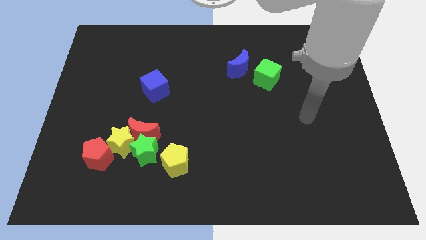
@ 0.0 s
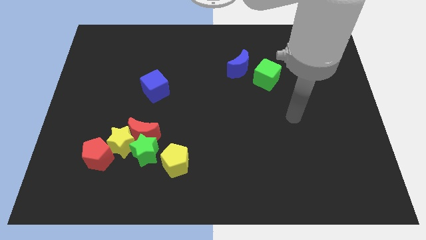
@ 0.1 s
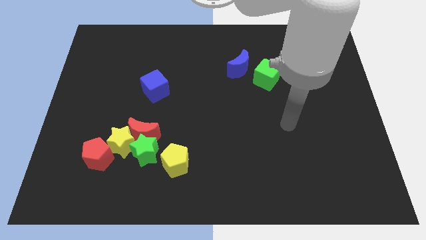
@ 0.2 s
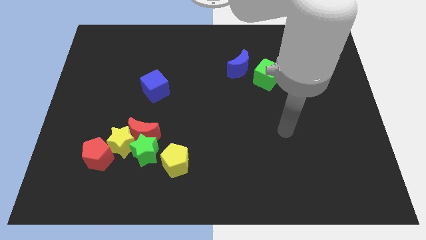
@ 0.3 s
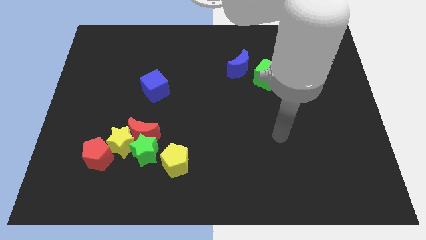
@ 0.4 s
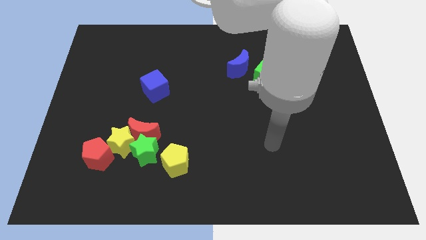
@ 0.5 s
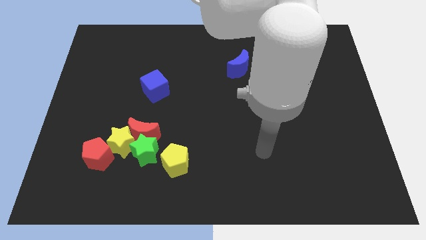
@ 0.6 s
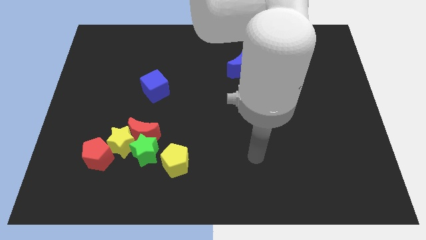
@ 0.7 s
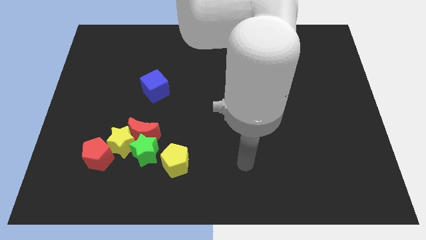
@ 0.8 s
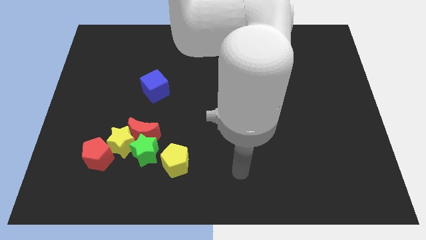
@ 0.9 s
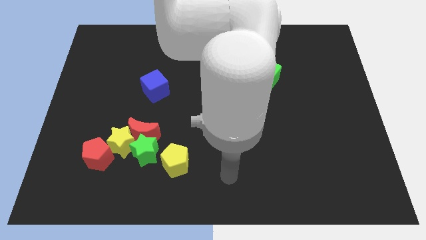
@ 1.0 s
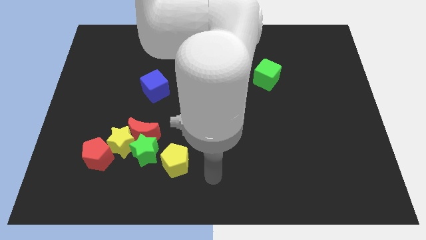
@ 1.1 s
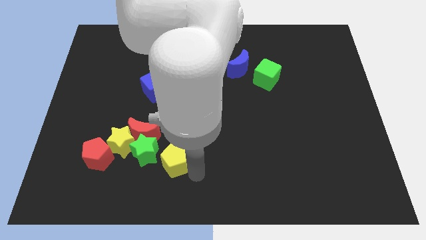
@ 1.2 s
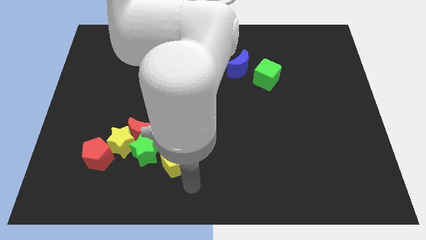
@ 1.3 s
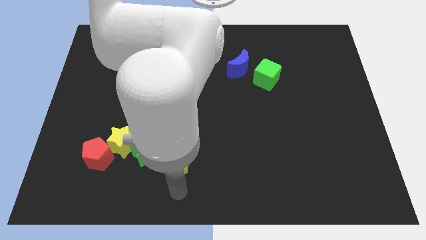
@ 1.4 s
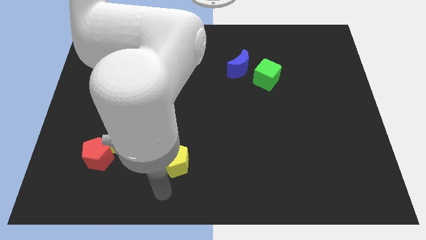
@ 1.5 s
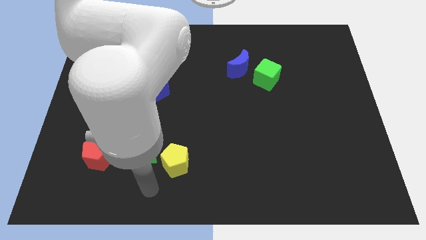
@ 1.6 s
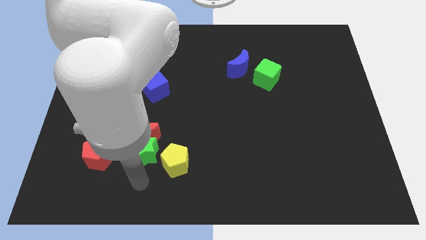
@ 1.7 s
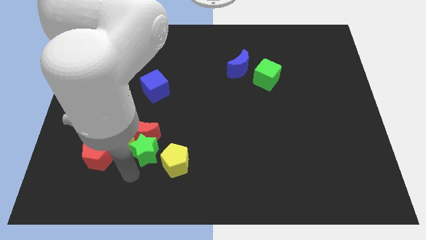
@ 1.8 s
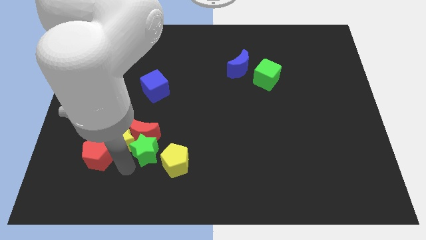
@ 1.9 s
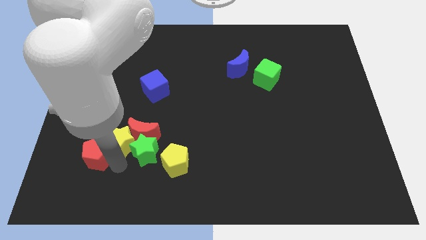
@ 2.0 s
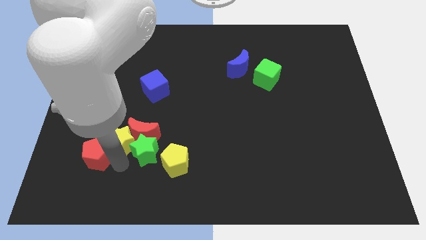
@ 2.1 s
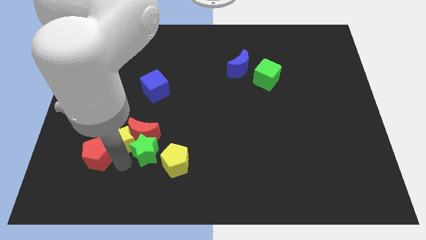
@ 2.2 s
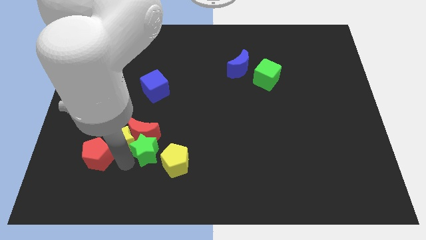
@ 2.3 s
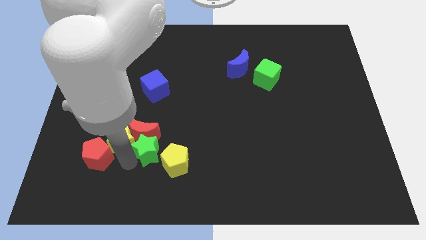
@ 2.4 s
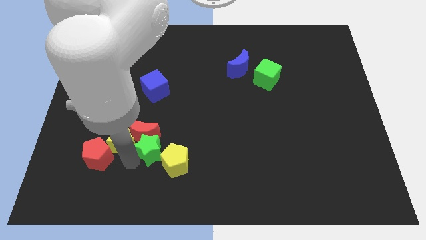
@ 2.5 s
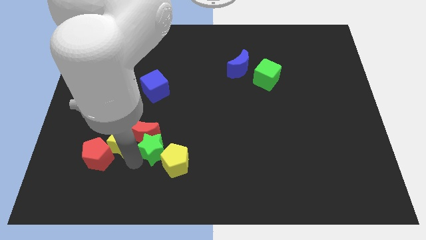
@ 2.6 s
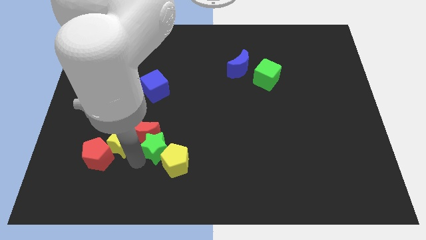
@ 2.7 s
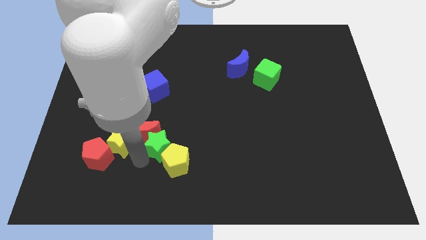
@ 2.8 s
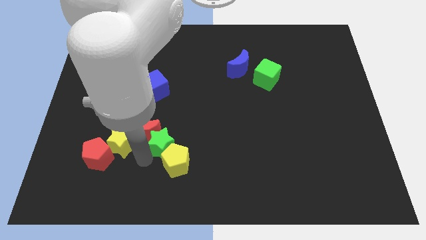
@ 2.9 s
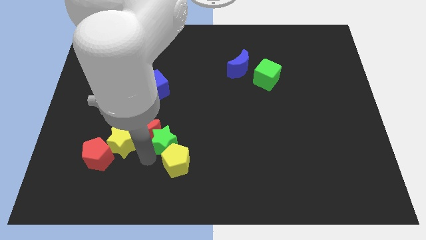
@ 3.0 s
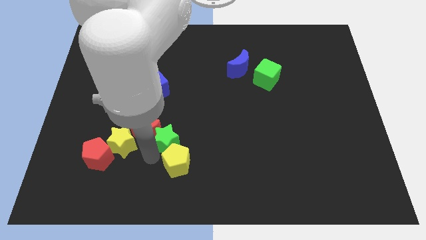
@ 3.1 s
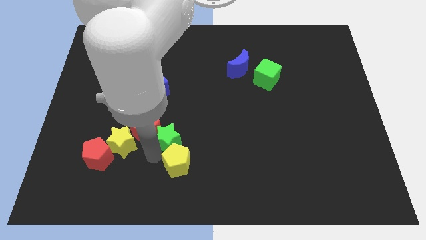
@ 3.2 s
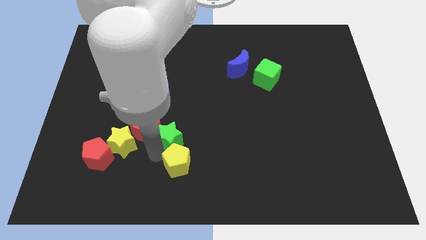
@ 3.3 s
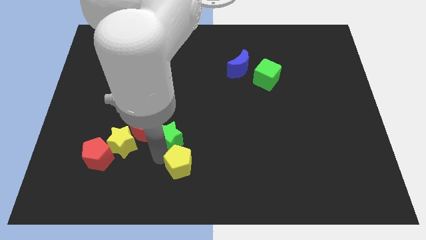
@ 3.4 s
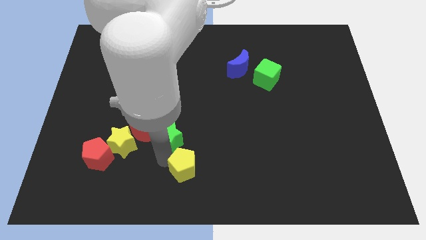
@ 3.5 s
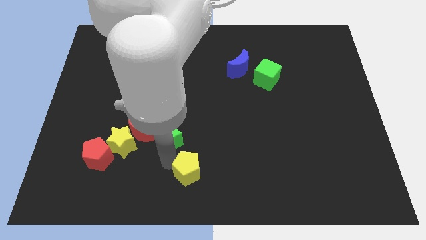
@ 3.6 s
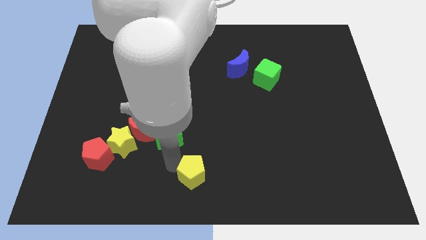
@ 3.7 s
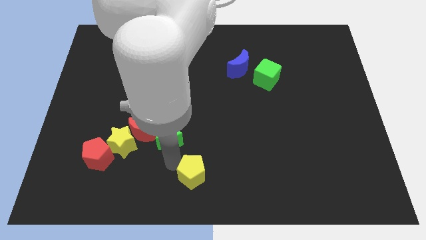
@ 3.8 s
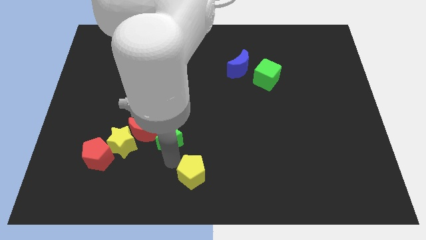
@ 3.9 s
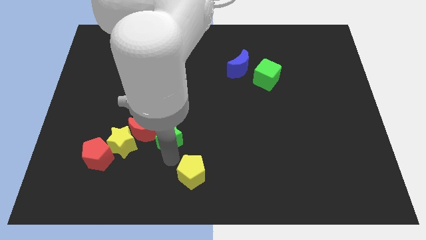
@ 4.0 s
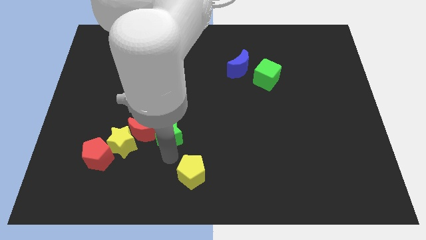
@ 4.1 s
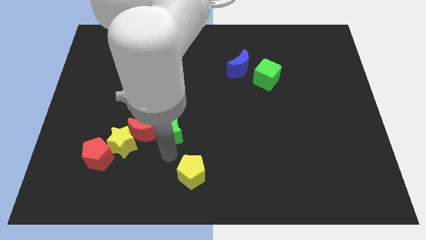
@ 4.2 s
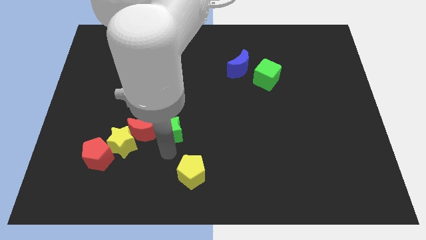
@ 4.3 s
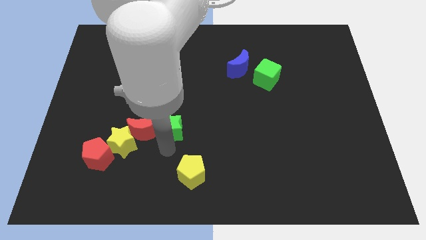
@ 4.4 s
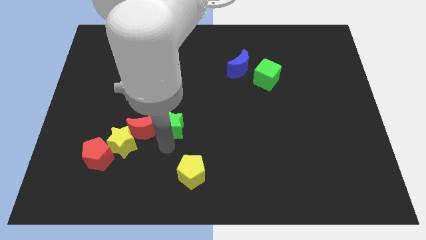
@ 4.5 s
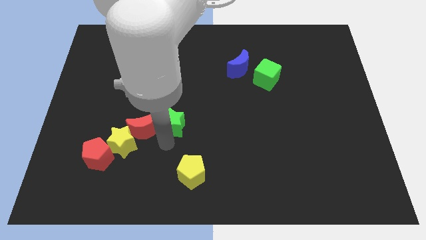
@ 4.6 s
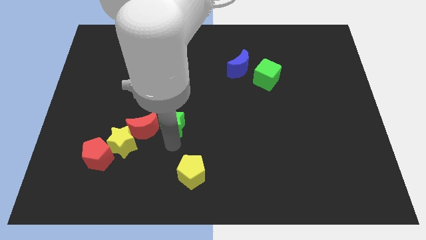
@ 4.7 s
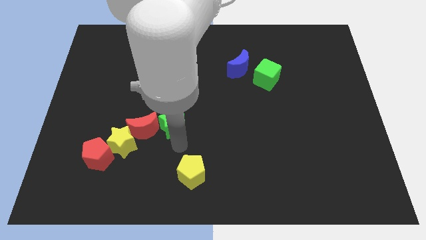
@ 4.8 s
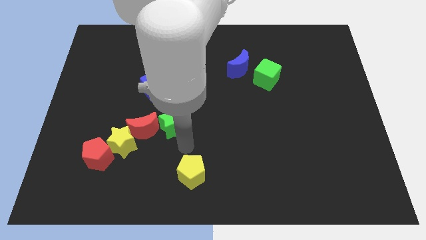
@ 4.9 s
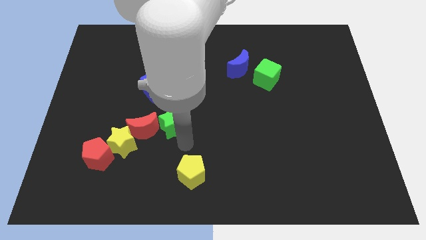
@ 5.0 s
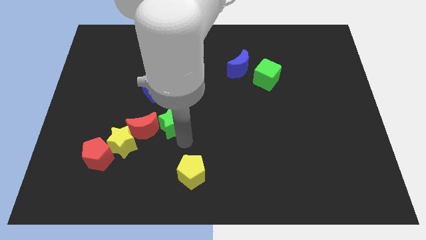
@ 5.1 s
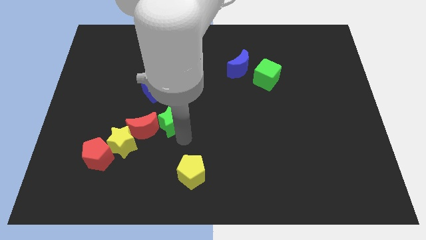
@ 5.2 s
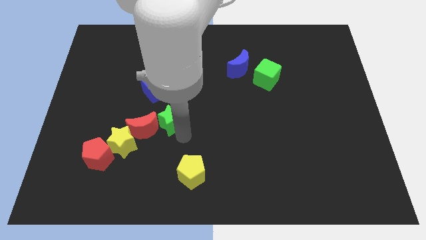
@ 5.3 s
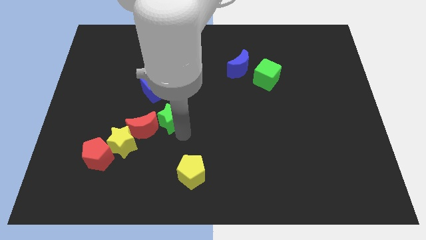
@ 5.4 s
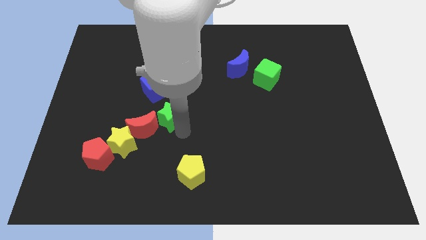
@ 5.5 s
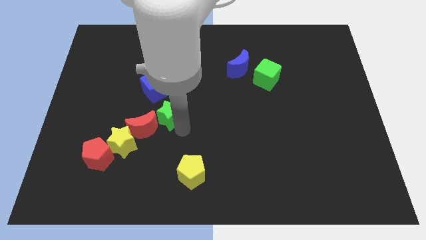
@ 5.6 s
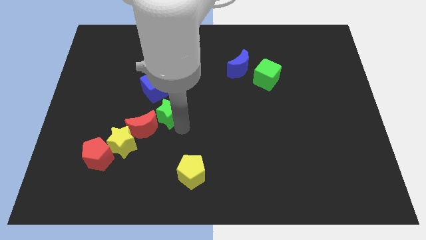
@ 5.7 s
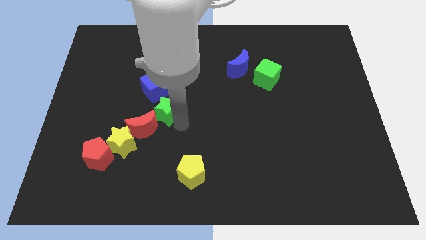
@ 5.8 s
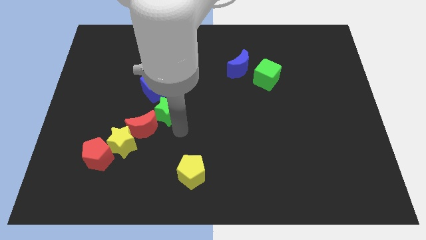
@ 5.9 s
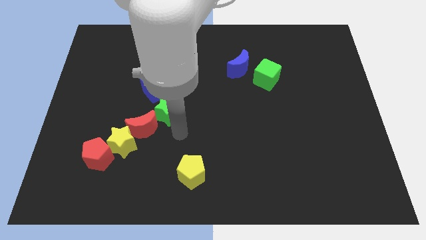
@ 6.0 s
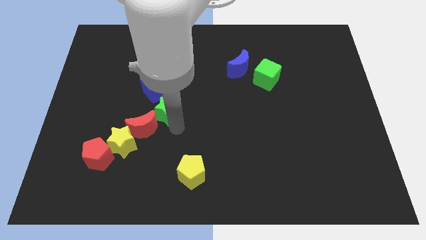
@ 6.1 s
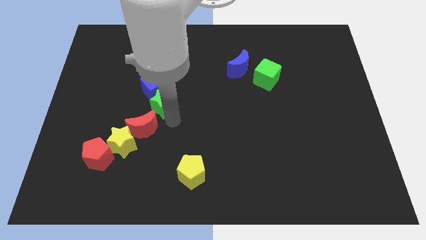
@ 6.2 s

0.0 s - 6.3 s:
slide the green star next to the blue cube

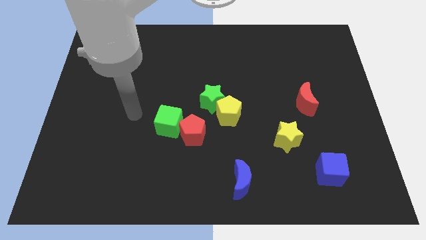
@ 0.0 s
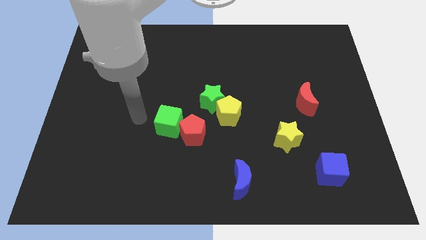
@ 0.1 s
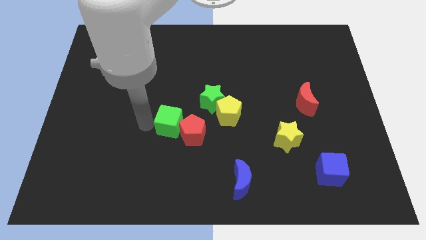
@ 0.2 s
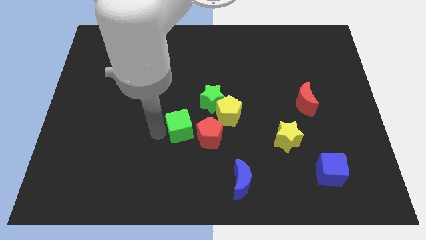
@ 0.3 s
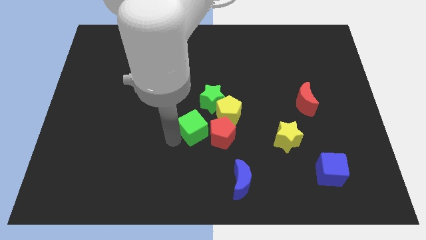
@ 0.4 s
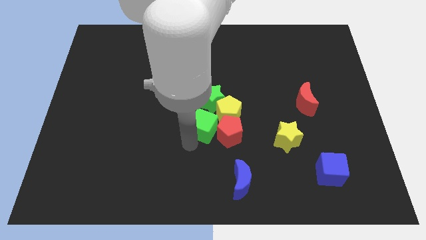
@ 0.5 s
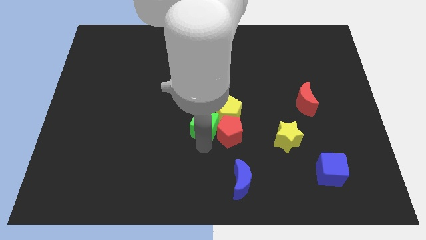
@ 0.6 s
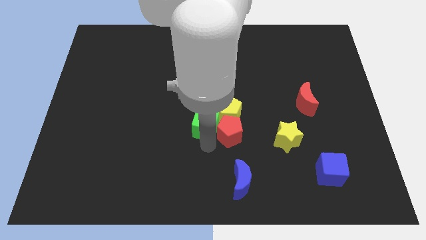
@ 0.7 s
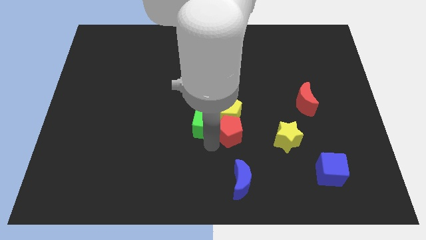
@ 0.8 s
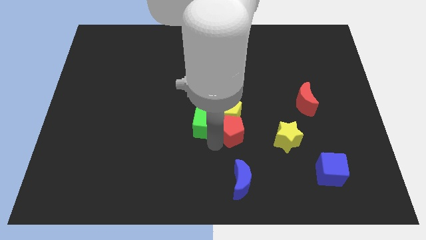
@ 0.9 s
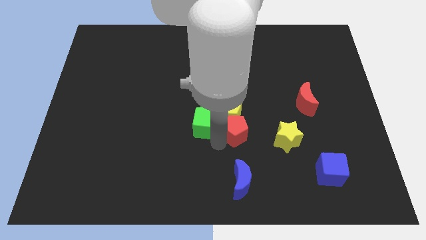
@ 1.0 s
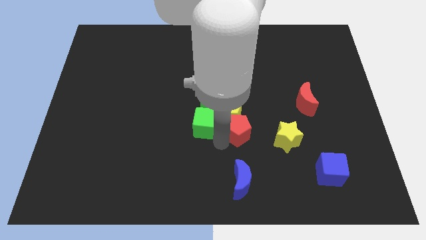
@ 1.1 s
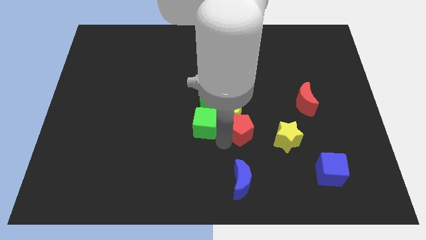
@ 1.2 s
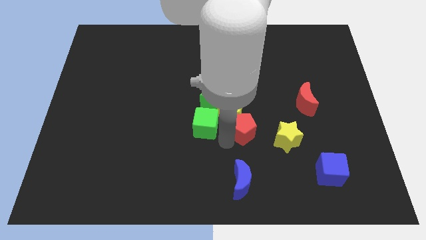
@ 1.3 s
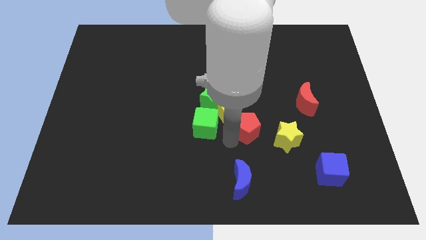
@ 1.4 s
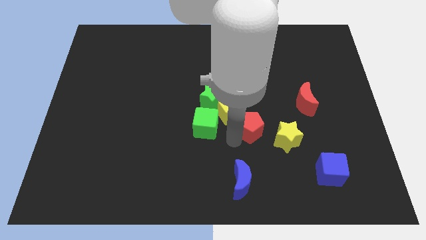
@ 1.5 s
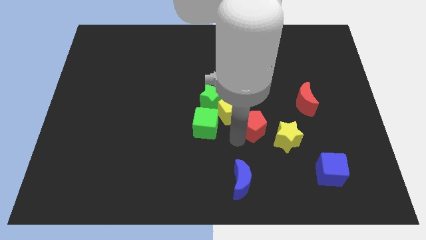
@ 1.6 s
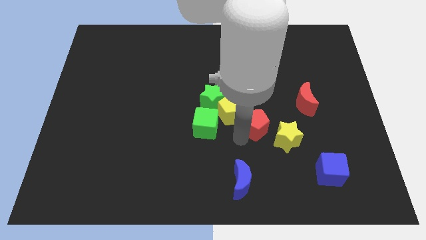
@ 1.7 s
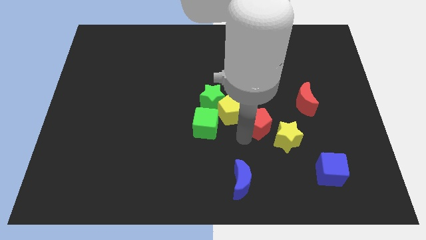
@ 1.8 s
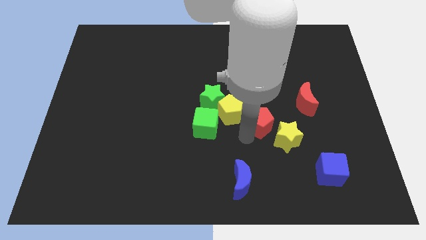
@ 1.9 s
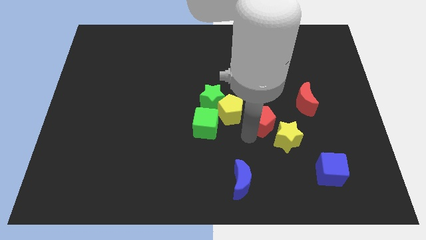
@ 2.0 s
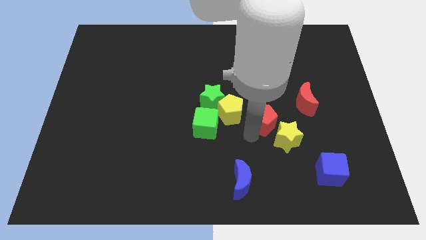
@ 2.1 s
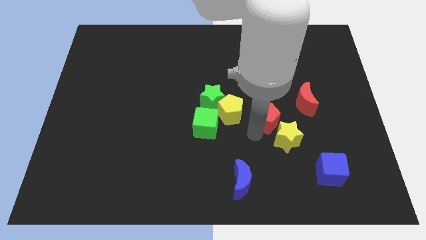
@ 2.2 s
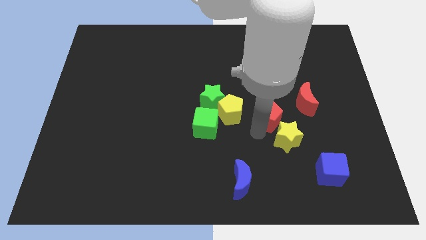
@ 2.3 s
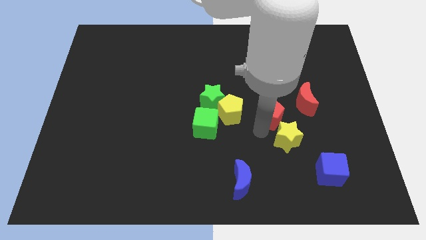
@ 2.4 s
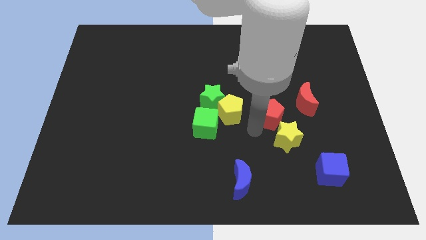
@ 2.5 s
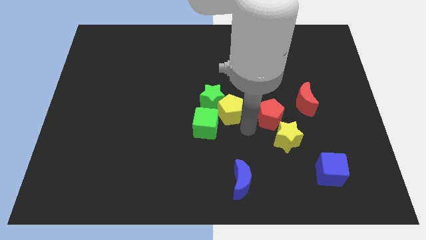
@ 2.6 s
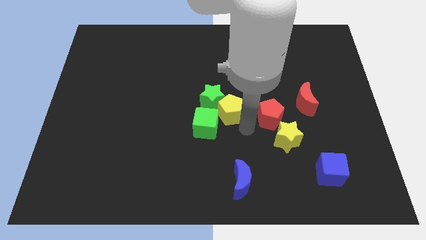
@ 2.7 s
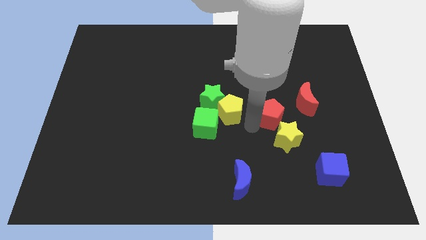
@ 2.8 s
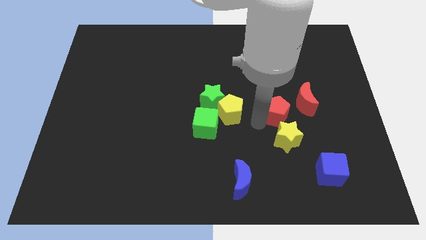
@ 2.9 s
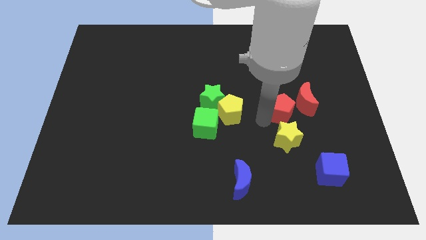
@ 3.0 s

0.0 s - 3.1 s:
move the red pentagon close to the red moon
